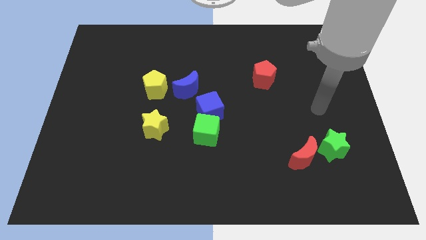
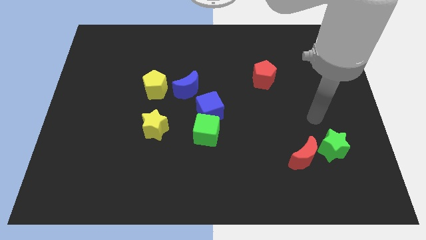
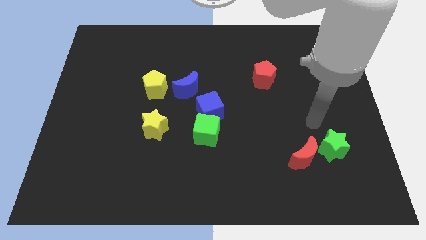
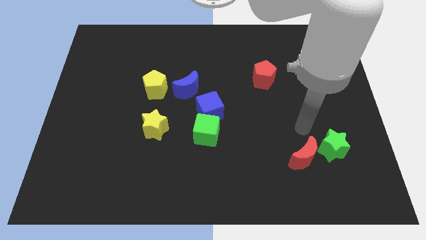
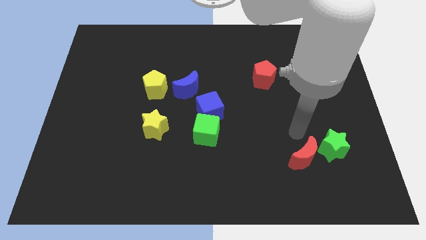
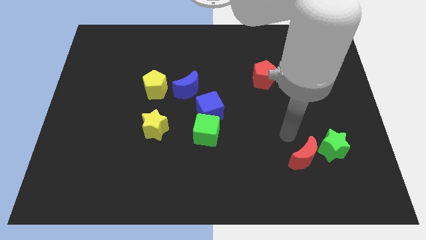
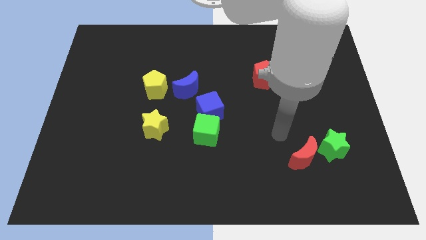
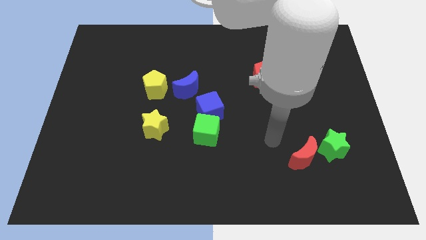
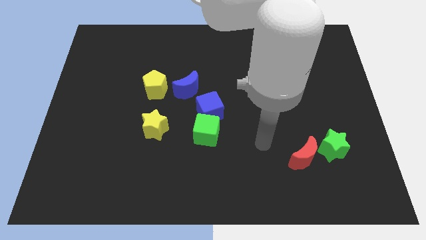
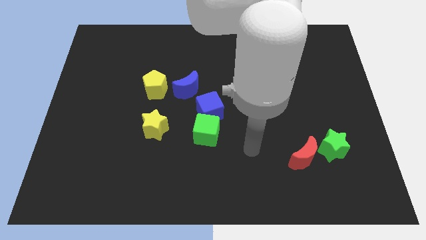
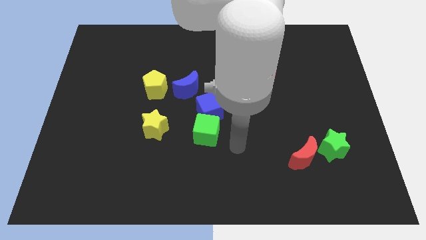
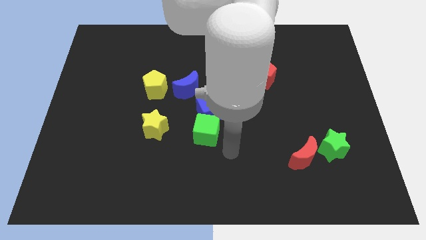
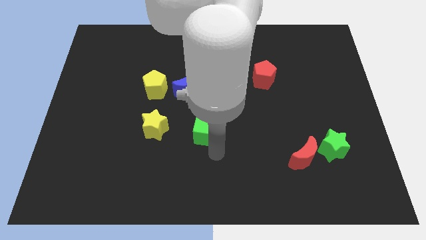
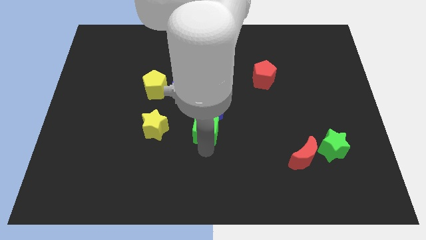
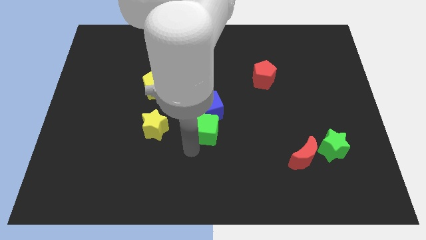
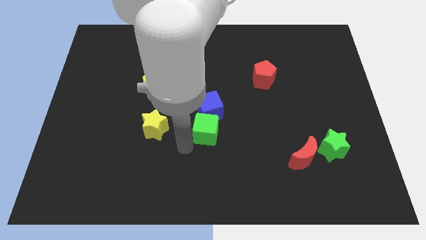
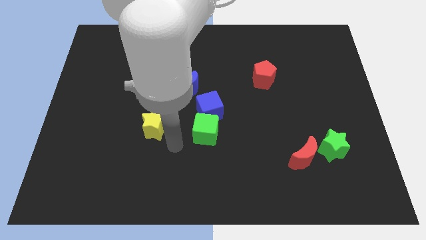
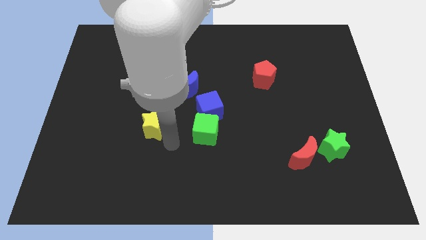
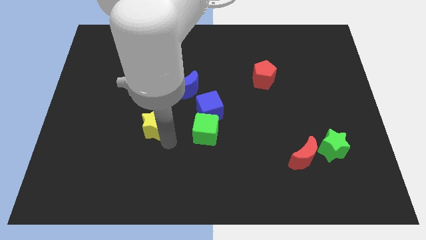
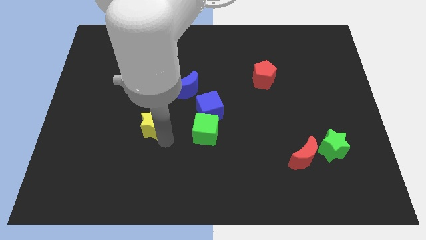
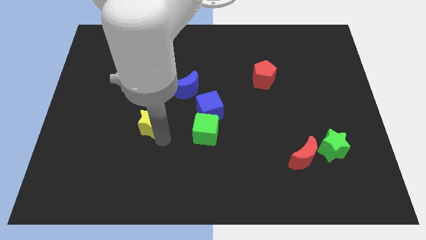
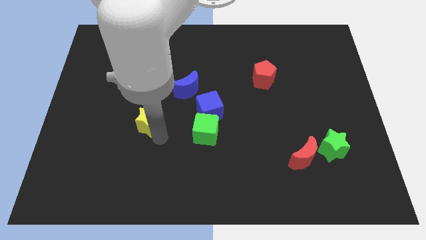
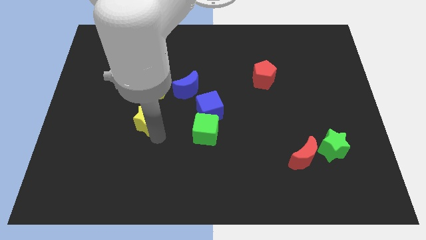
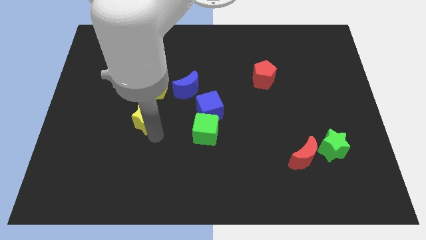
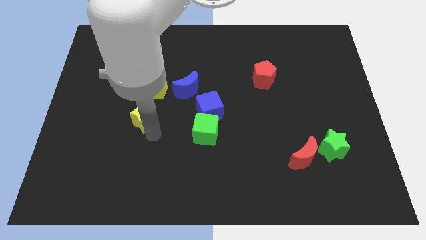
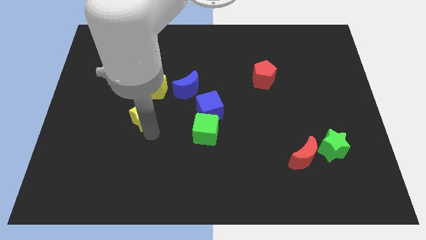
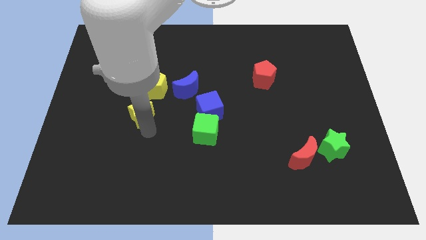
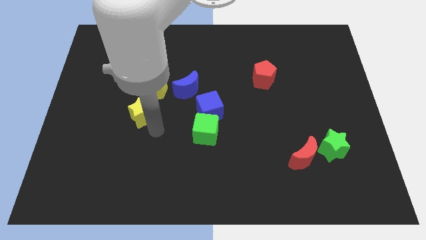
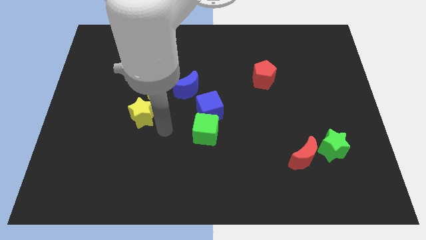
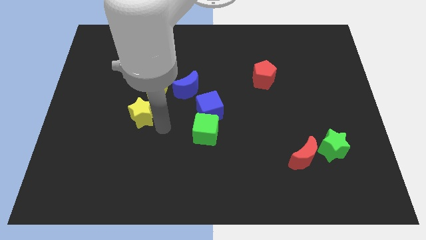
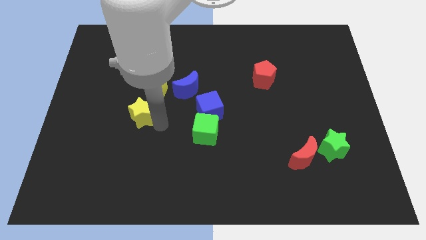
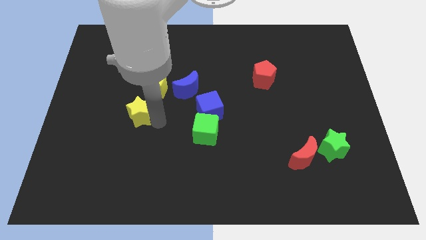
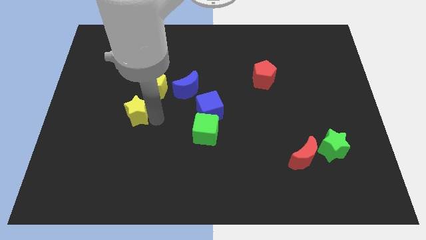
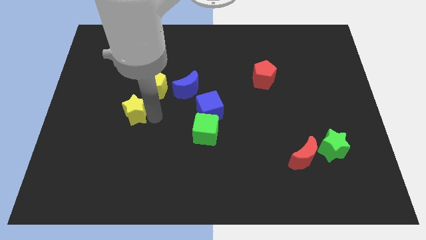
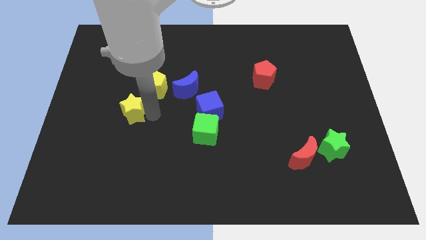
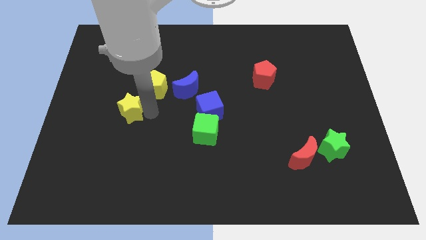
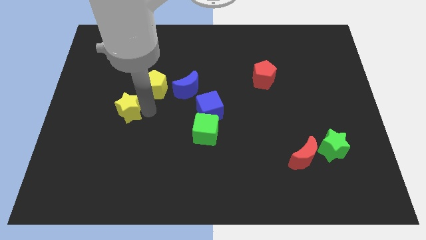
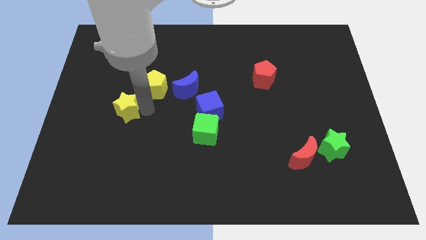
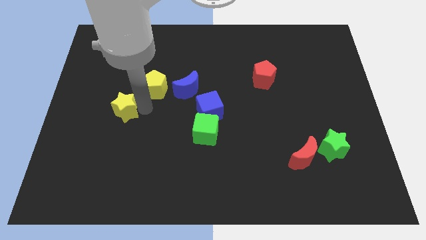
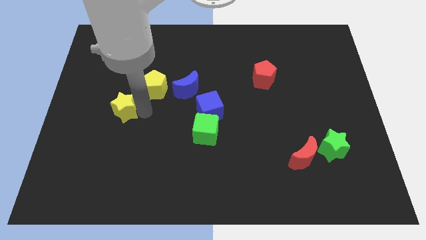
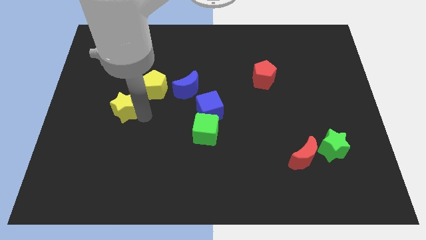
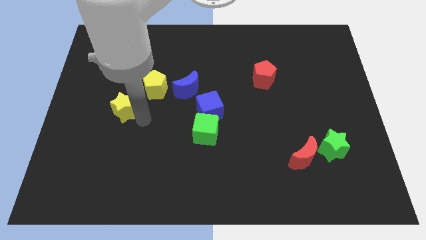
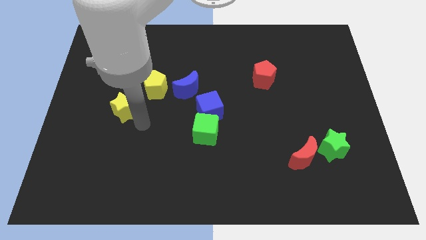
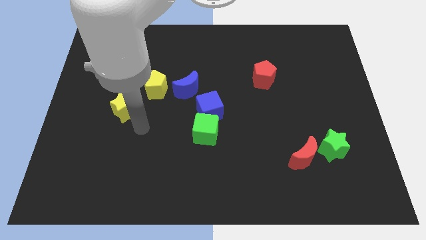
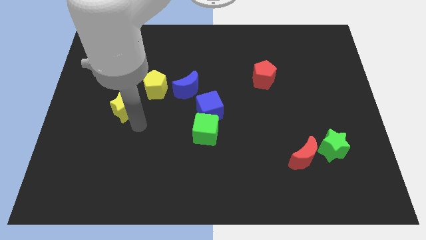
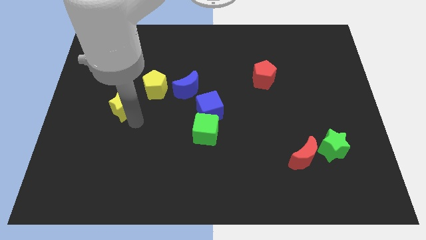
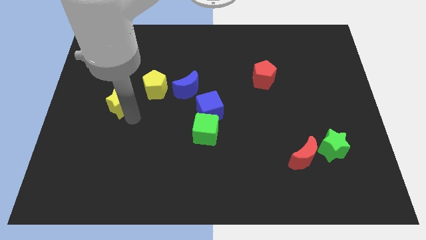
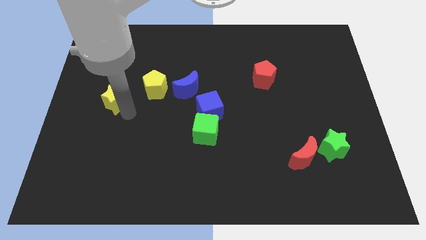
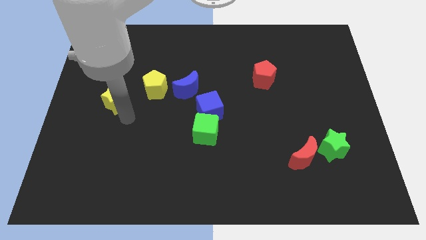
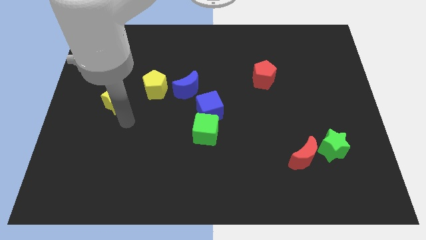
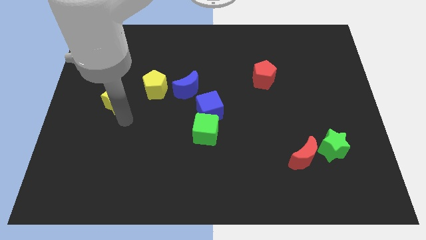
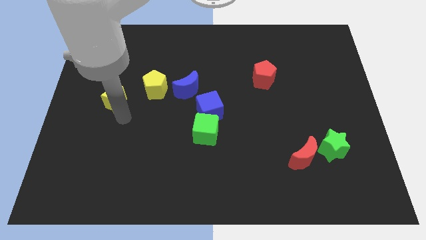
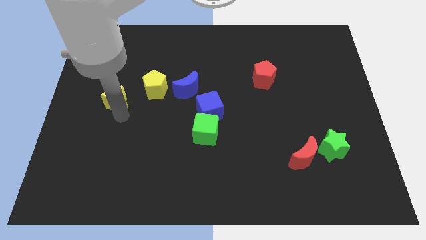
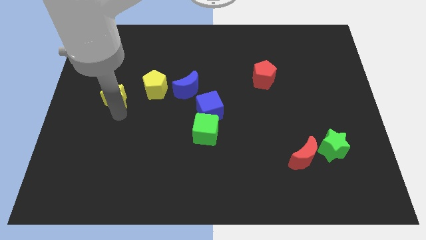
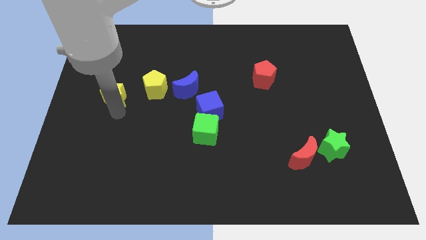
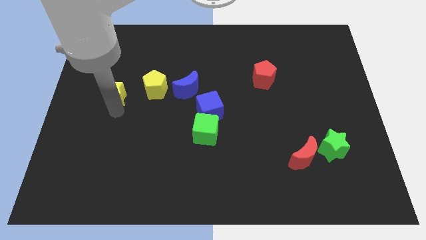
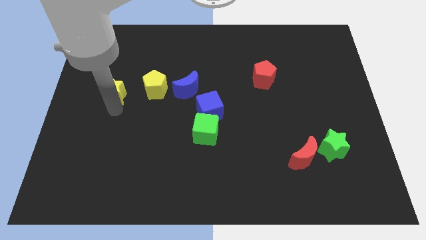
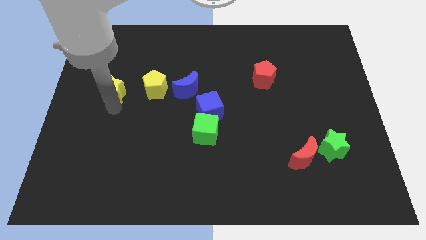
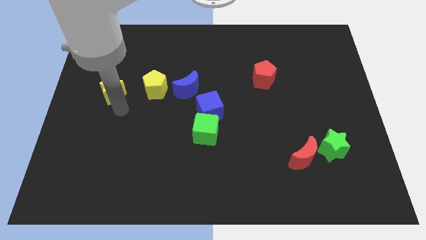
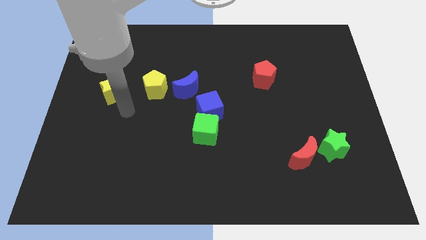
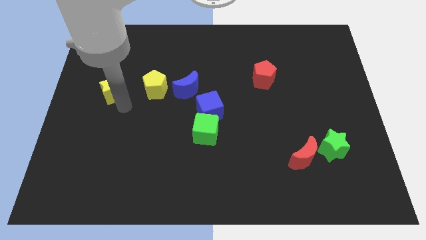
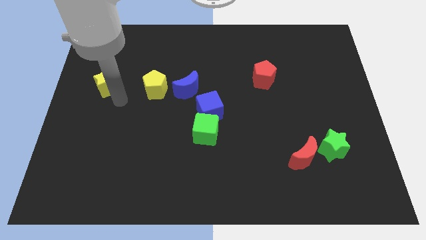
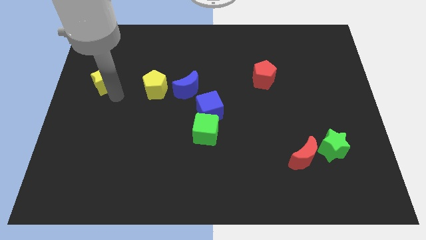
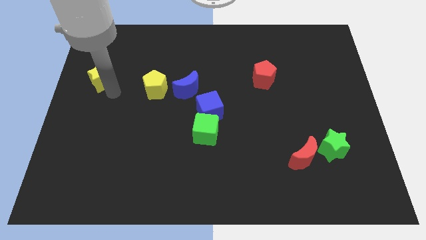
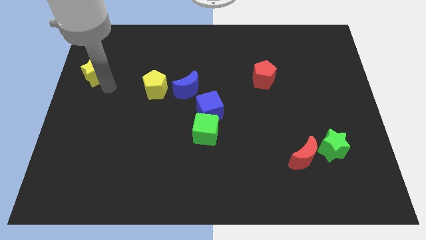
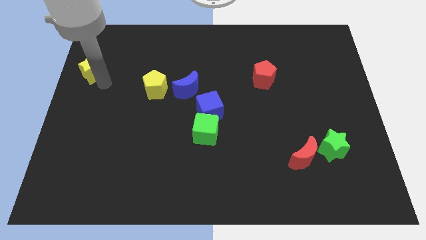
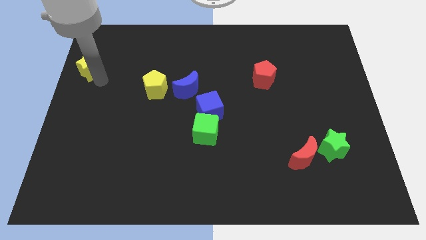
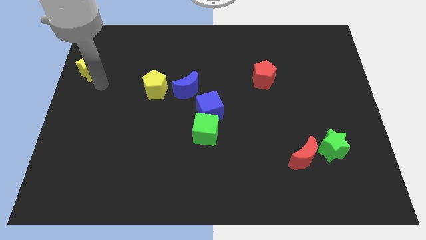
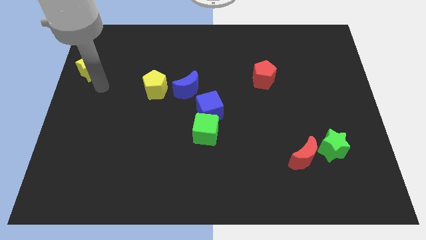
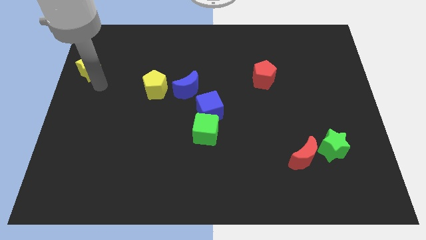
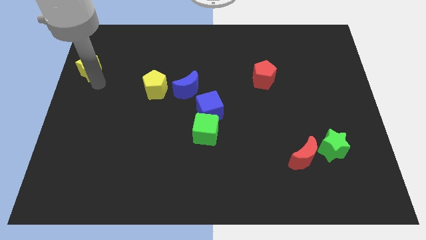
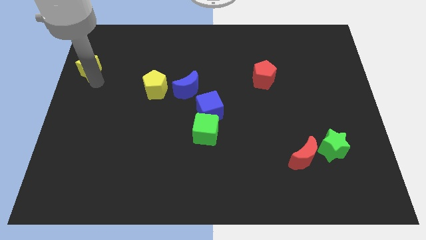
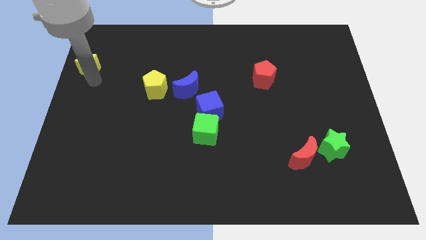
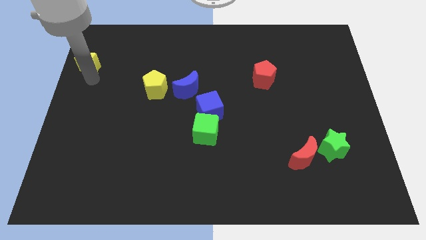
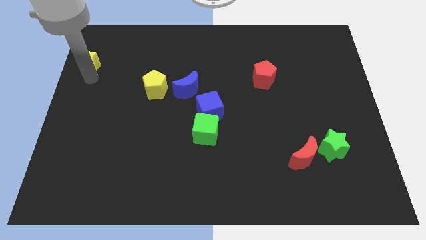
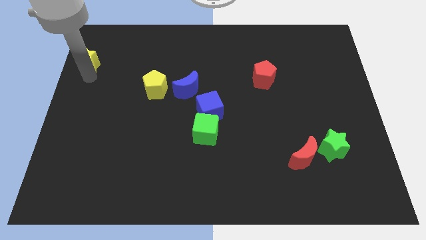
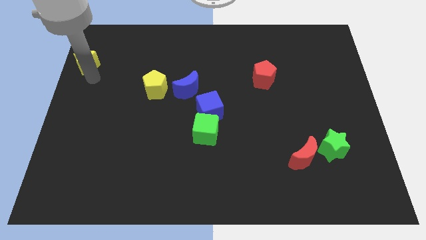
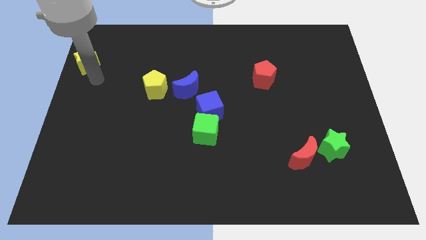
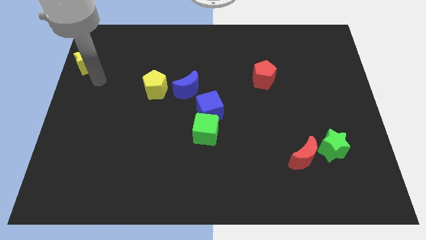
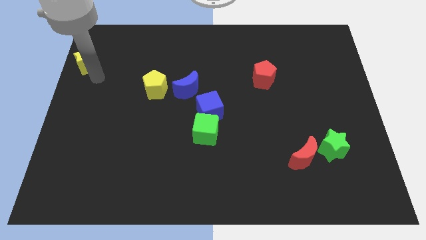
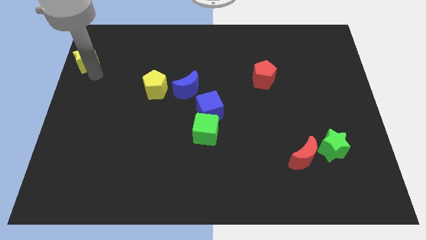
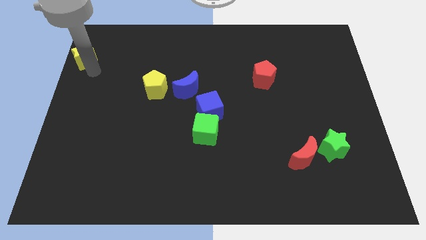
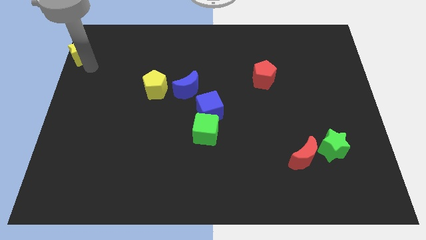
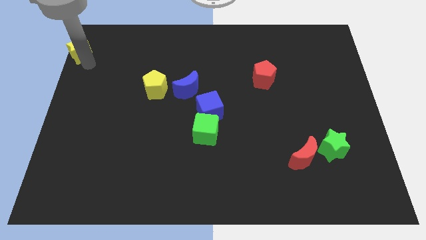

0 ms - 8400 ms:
move the yellow star to the upper left corner
